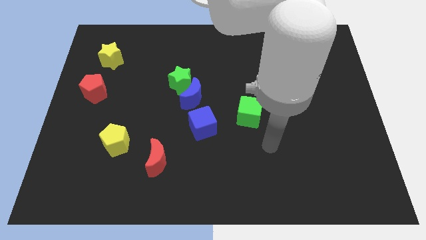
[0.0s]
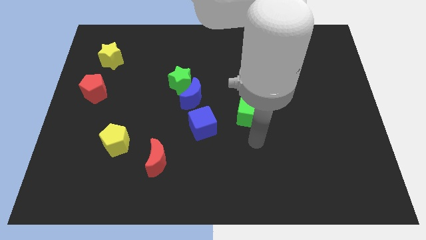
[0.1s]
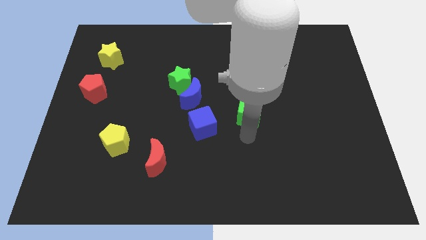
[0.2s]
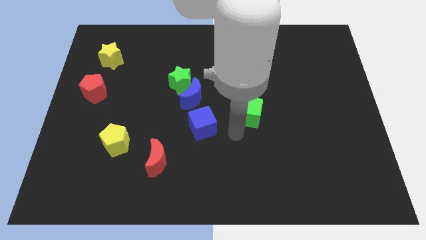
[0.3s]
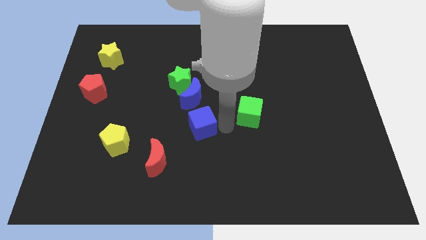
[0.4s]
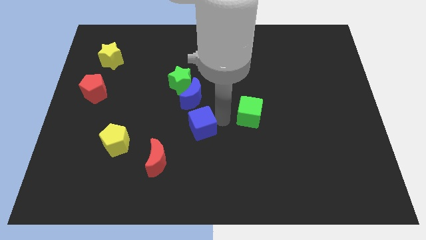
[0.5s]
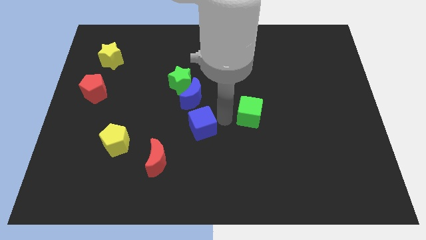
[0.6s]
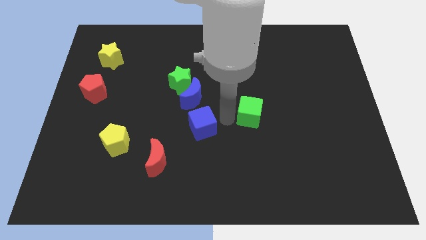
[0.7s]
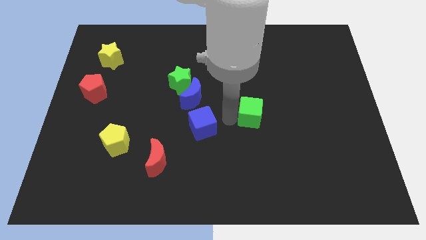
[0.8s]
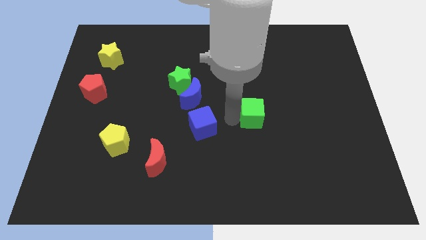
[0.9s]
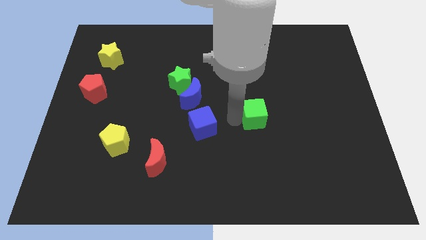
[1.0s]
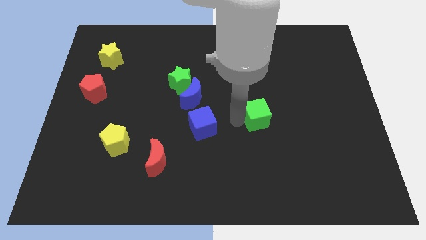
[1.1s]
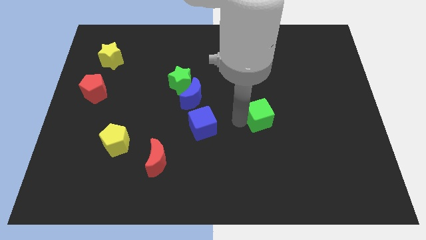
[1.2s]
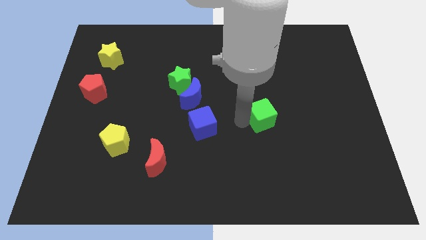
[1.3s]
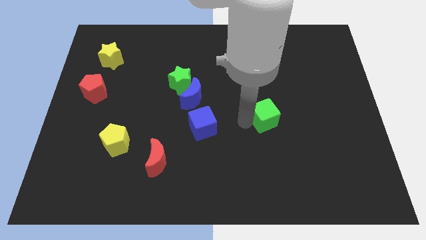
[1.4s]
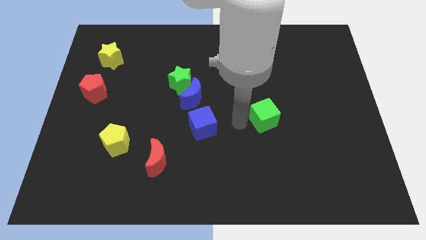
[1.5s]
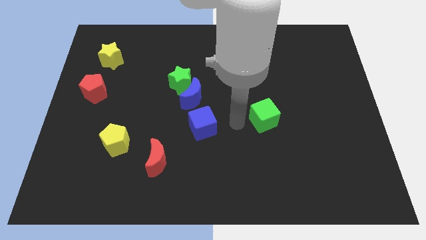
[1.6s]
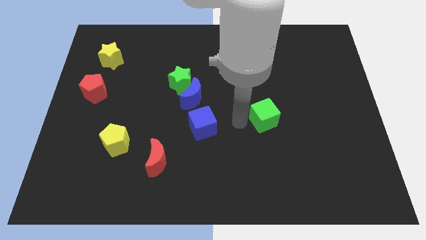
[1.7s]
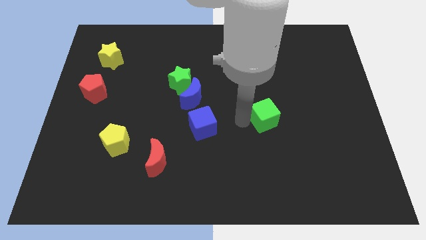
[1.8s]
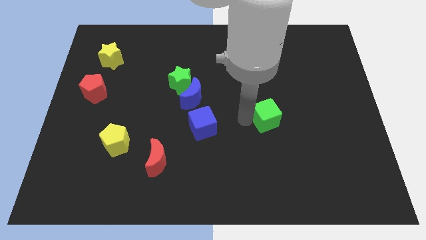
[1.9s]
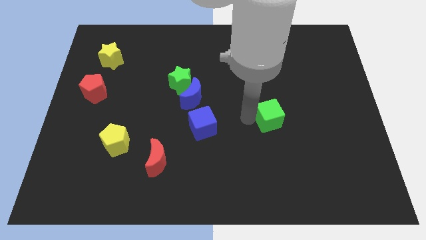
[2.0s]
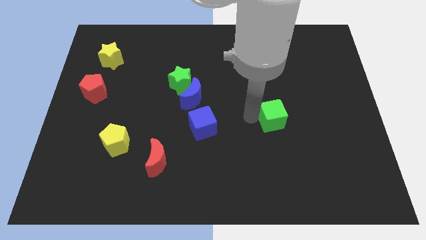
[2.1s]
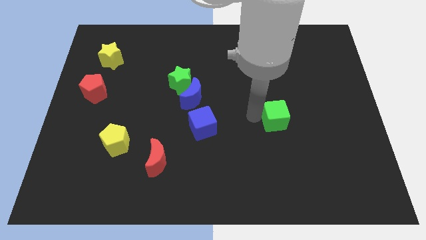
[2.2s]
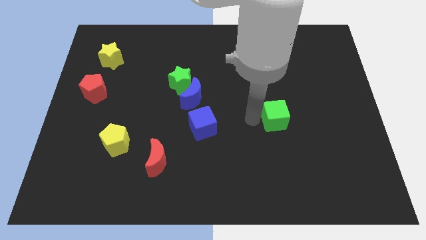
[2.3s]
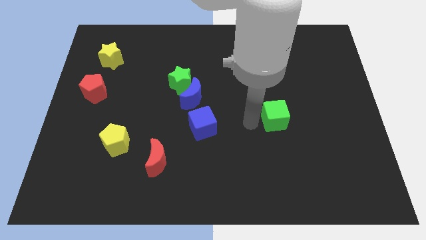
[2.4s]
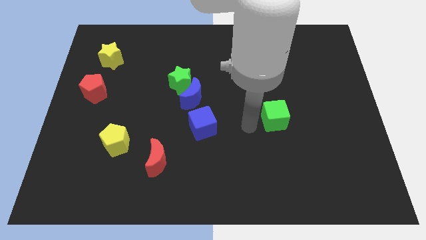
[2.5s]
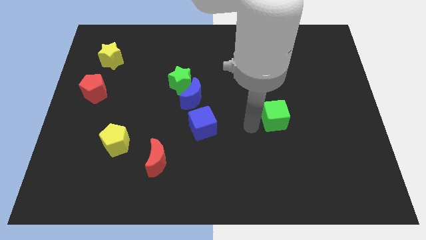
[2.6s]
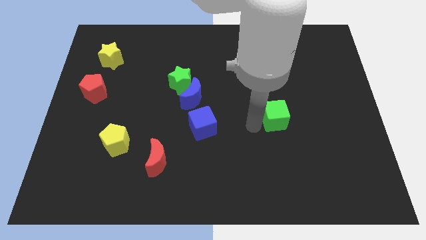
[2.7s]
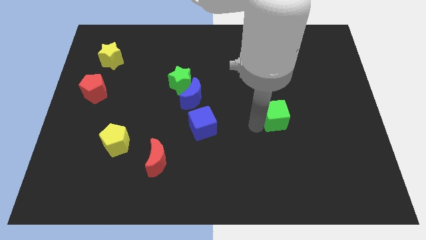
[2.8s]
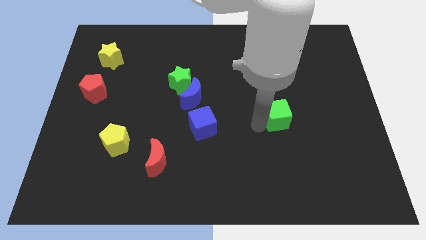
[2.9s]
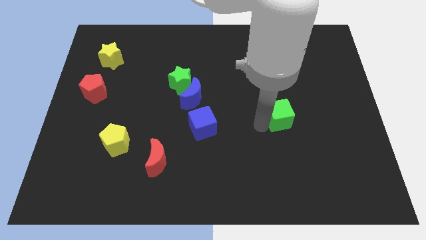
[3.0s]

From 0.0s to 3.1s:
push the green cube somewhat right

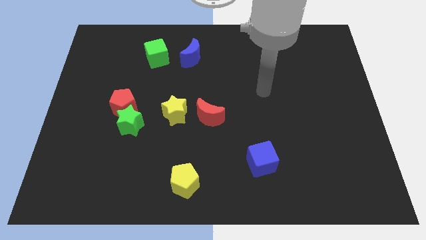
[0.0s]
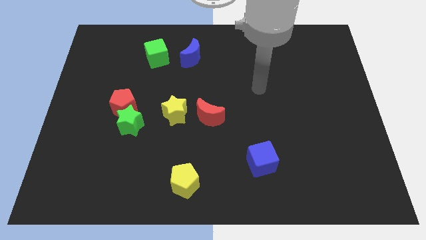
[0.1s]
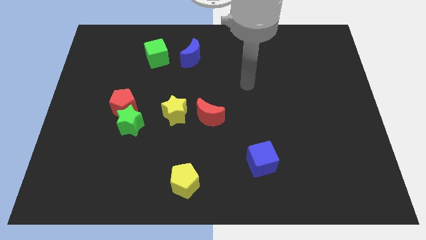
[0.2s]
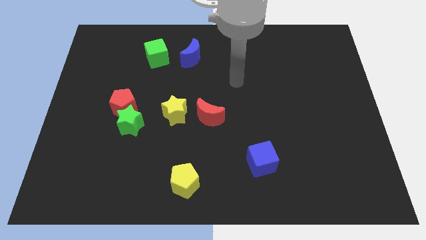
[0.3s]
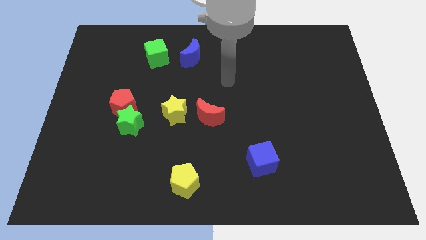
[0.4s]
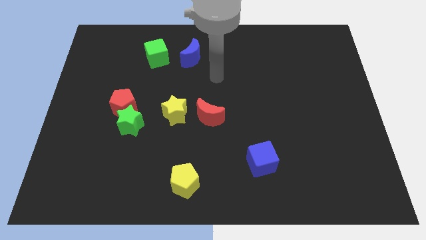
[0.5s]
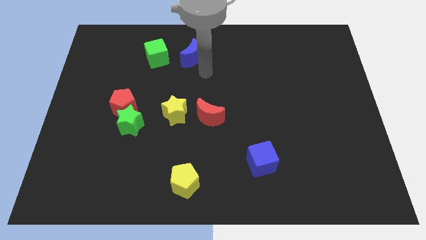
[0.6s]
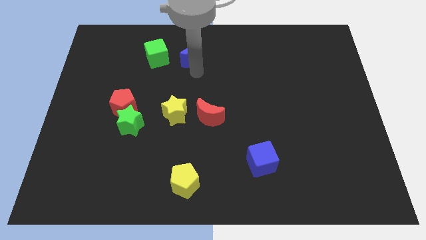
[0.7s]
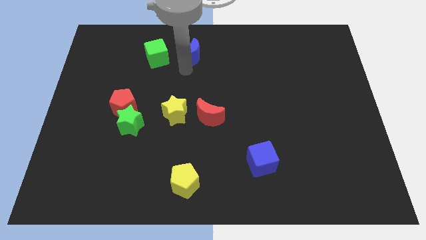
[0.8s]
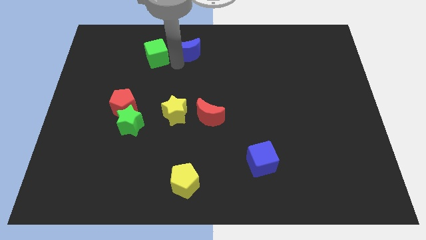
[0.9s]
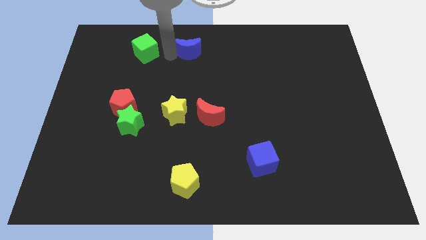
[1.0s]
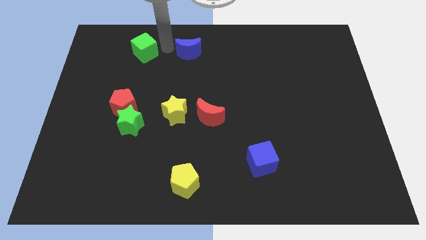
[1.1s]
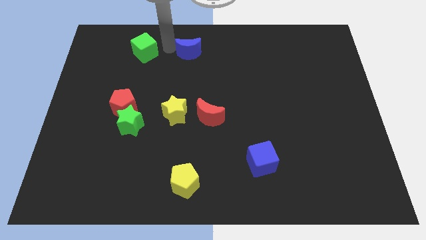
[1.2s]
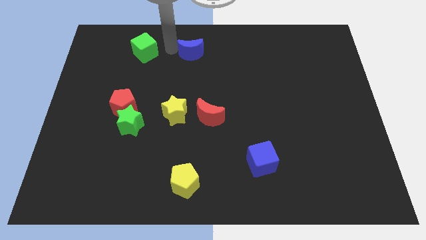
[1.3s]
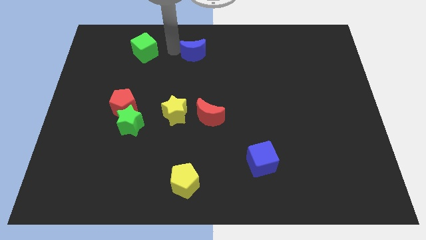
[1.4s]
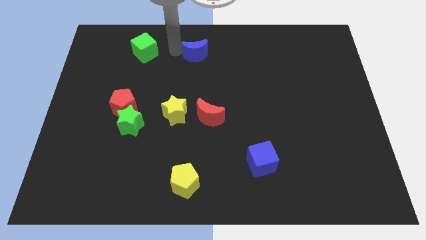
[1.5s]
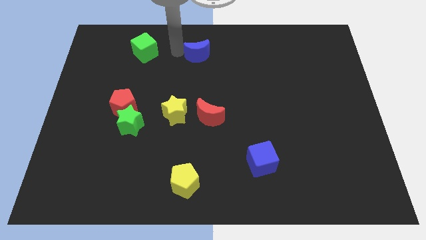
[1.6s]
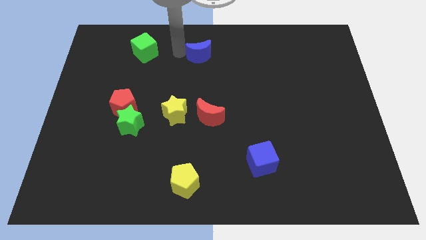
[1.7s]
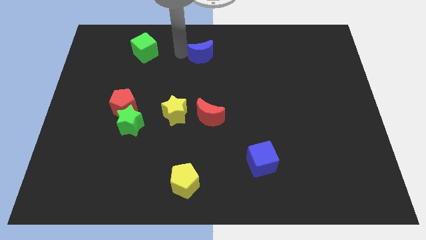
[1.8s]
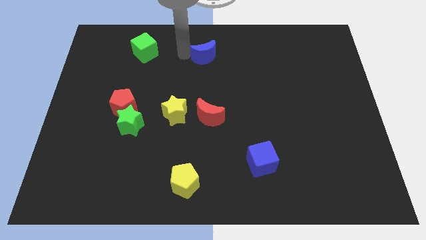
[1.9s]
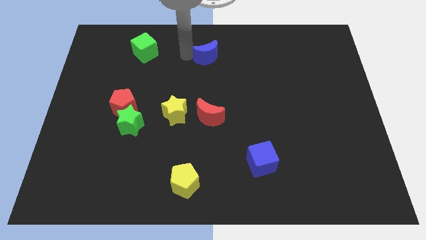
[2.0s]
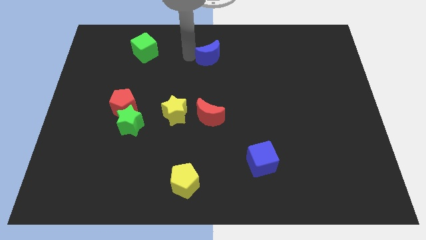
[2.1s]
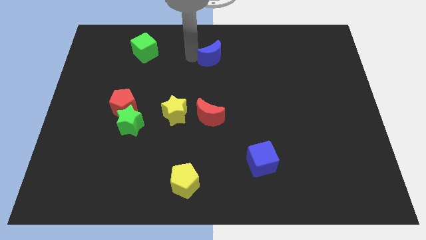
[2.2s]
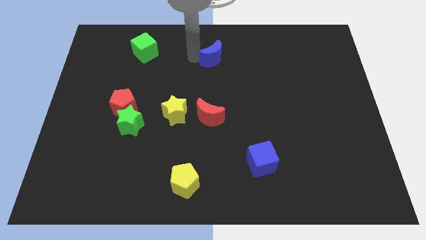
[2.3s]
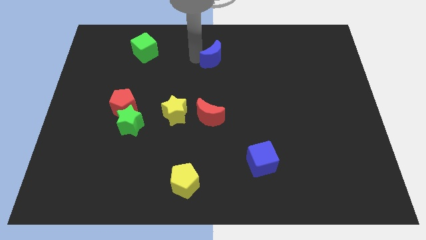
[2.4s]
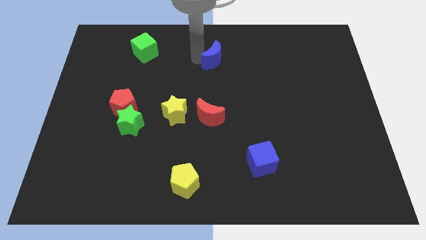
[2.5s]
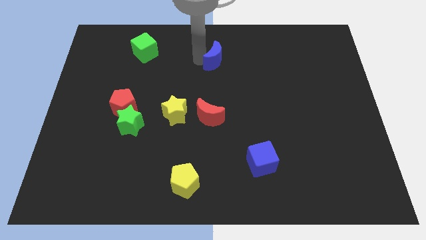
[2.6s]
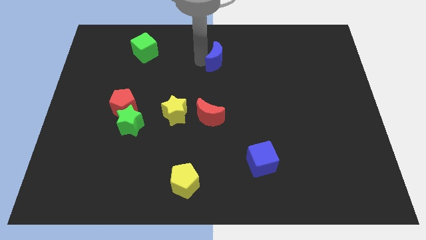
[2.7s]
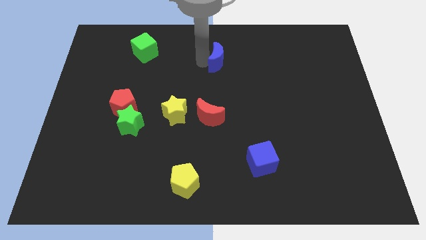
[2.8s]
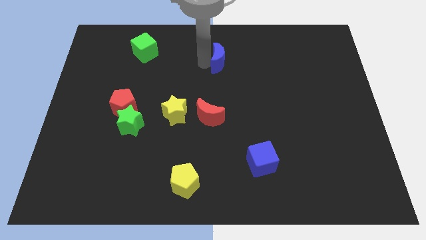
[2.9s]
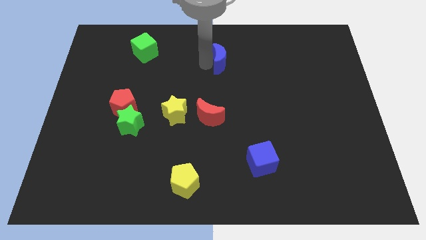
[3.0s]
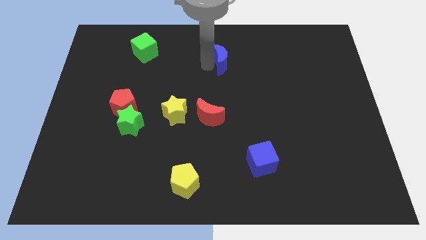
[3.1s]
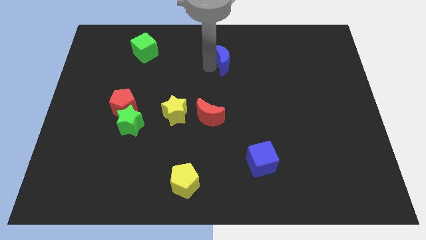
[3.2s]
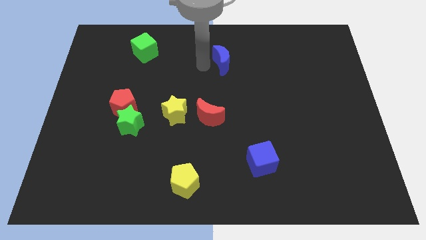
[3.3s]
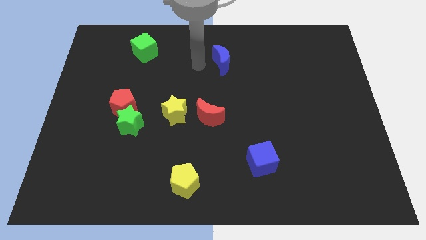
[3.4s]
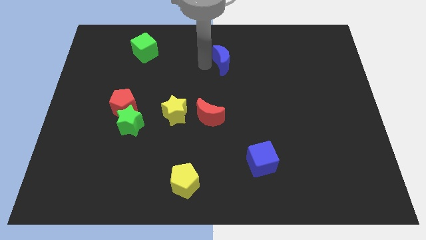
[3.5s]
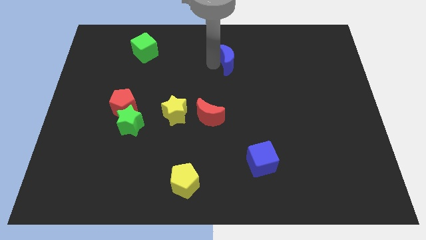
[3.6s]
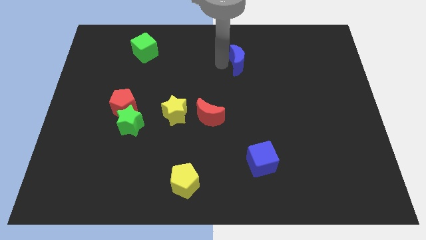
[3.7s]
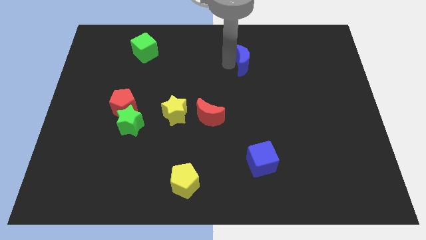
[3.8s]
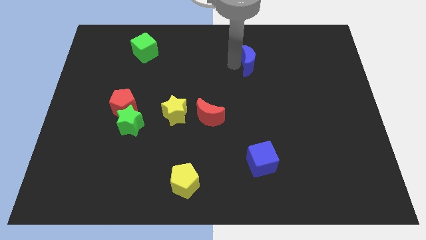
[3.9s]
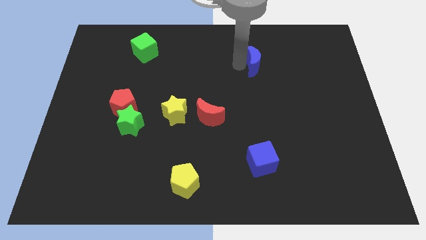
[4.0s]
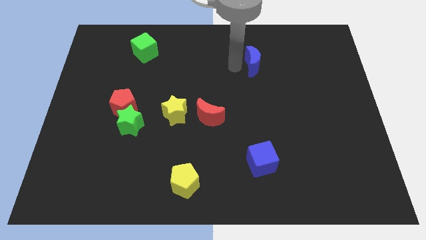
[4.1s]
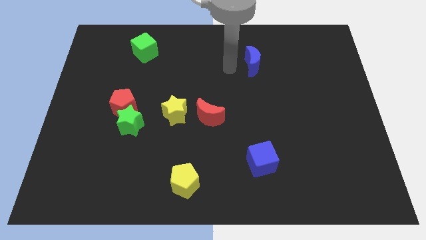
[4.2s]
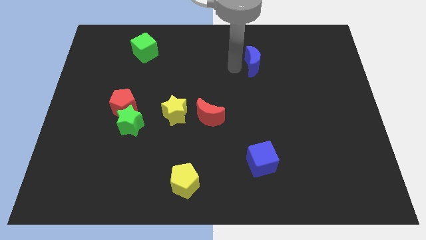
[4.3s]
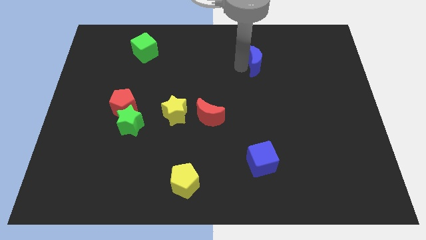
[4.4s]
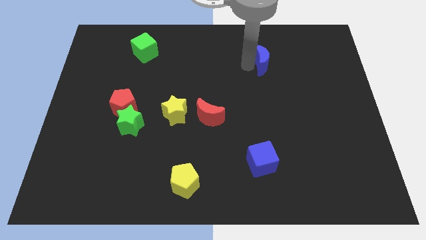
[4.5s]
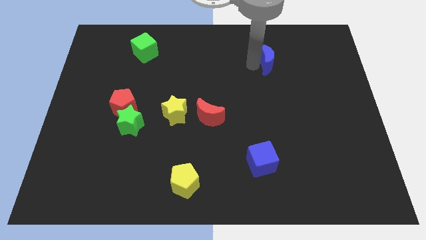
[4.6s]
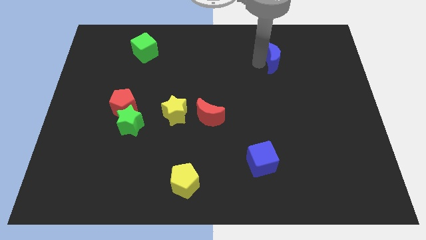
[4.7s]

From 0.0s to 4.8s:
move the blue moon to the right
